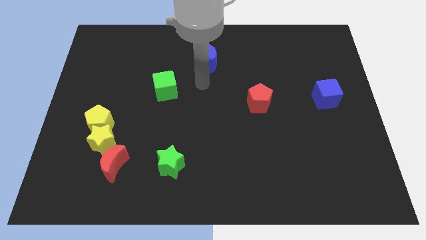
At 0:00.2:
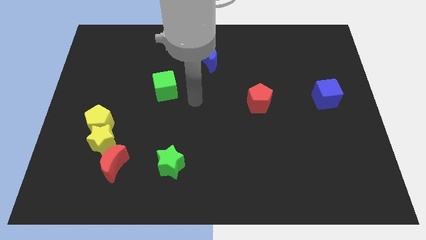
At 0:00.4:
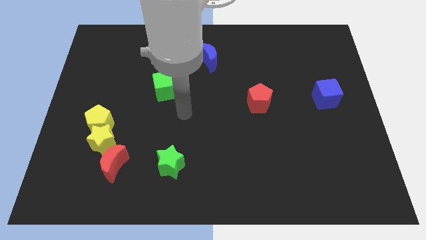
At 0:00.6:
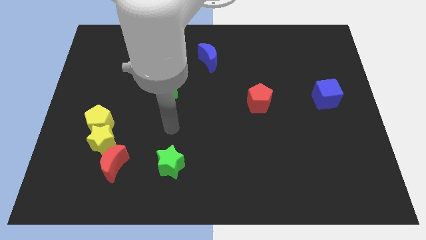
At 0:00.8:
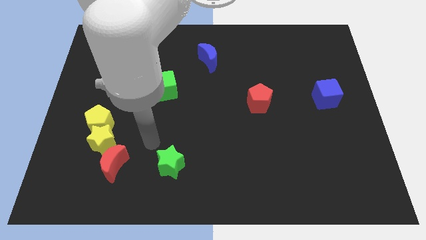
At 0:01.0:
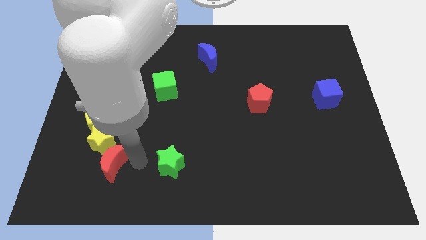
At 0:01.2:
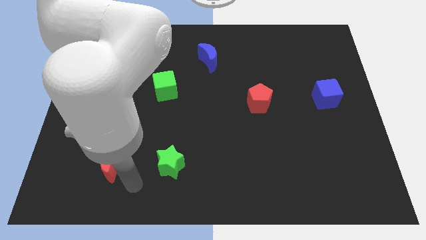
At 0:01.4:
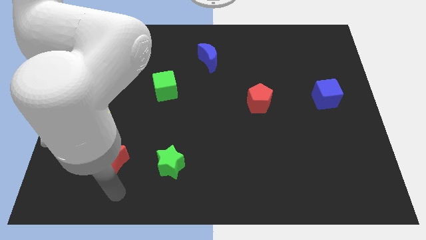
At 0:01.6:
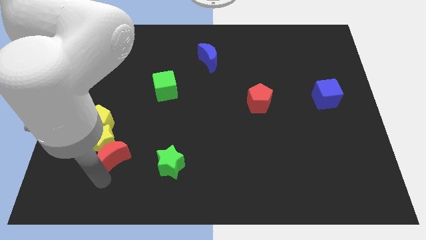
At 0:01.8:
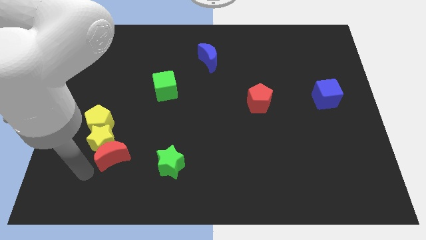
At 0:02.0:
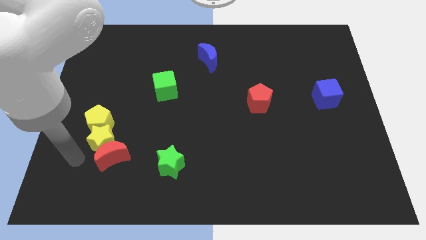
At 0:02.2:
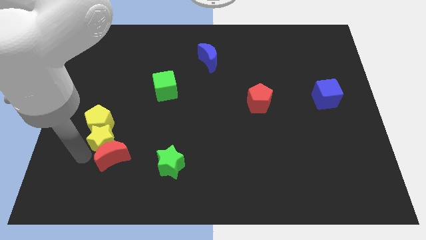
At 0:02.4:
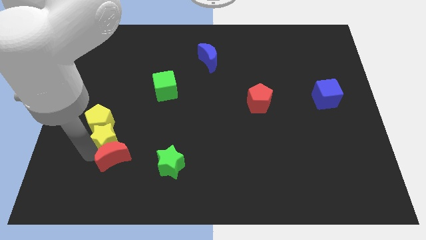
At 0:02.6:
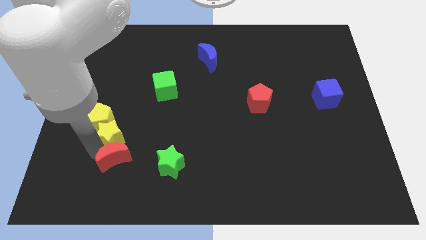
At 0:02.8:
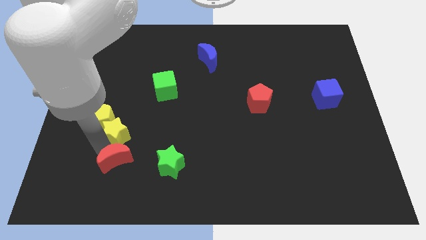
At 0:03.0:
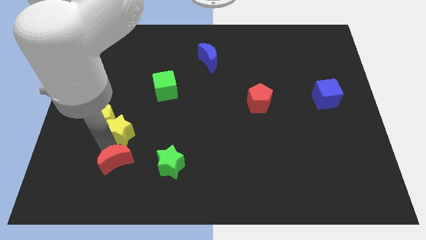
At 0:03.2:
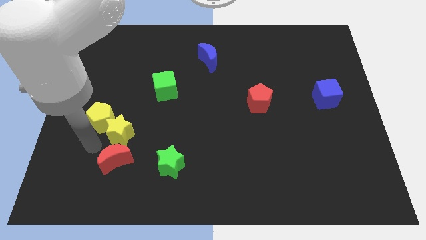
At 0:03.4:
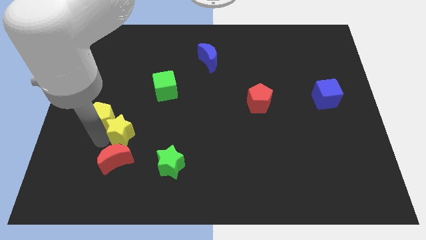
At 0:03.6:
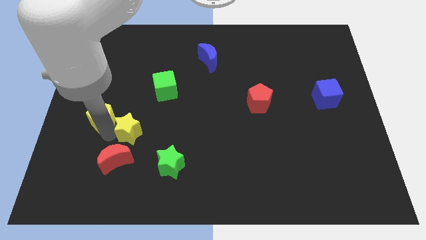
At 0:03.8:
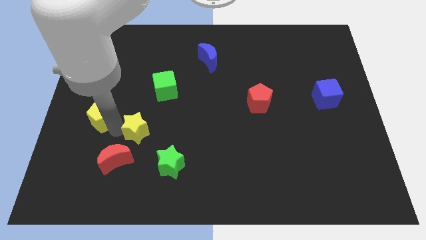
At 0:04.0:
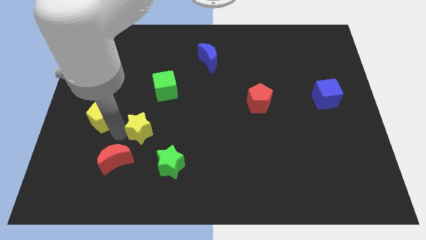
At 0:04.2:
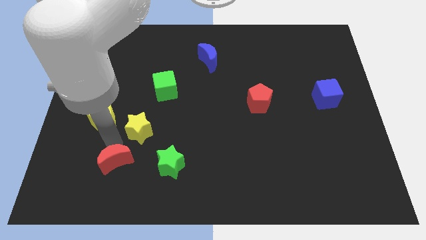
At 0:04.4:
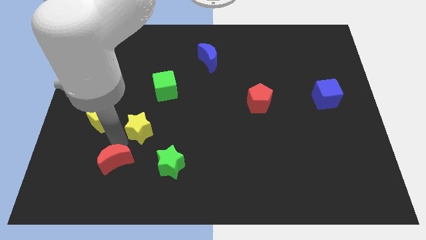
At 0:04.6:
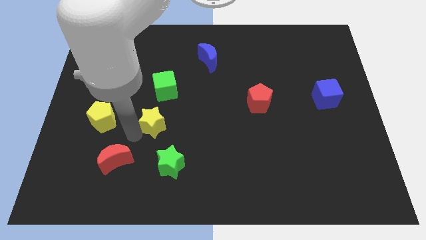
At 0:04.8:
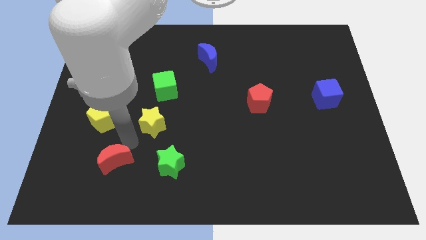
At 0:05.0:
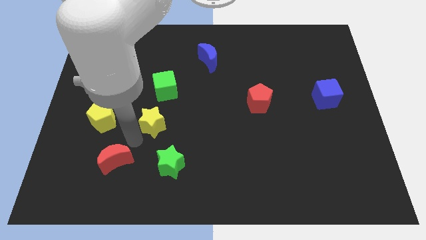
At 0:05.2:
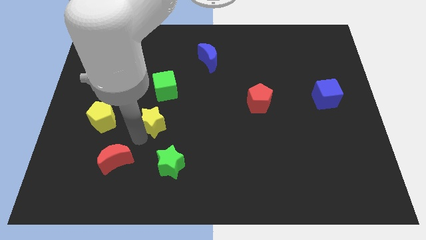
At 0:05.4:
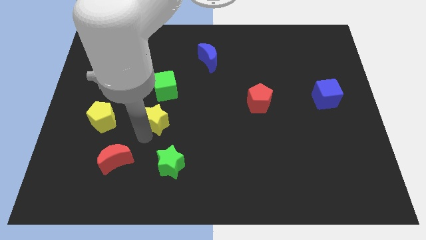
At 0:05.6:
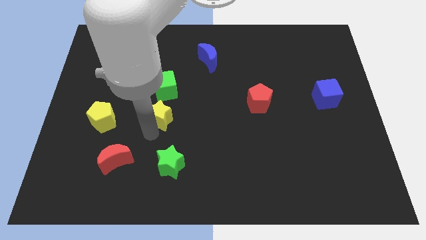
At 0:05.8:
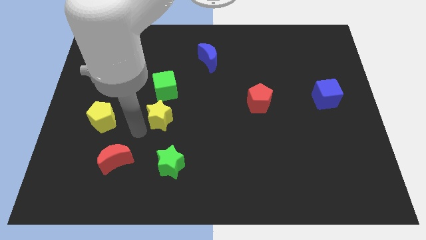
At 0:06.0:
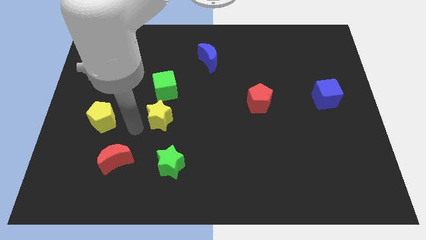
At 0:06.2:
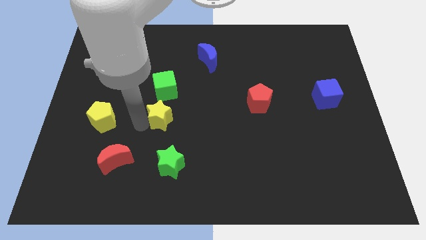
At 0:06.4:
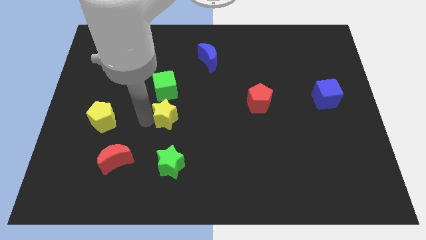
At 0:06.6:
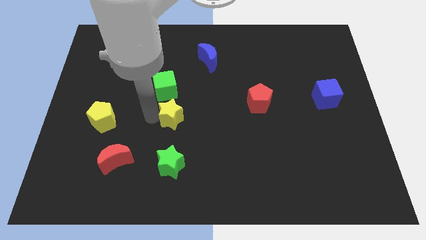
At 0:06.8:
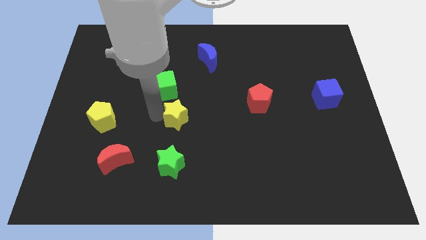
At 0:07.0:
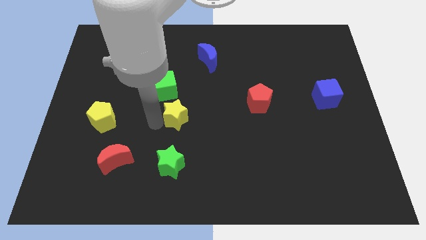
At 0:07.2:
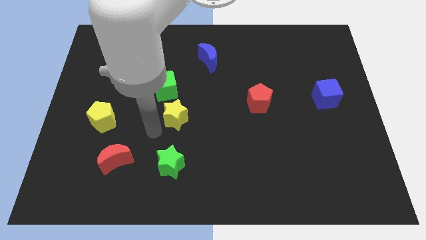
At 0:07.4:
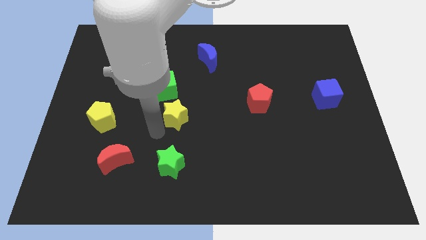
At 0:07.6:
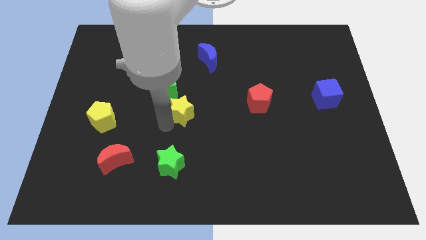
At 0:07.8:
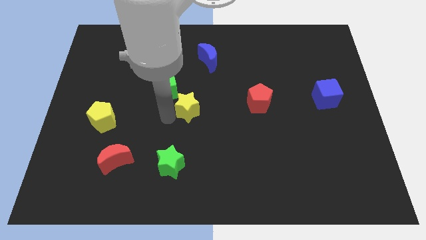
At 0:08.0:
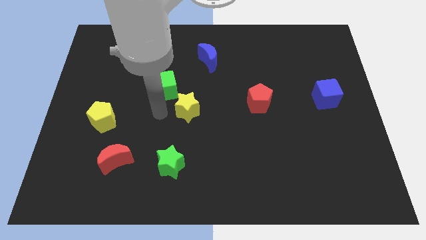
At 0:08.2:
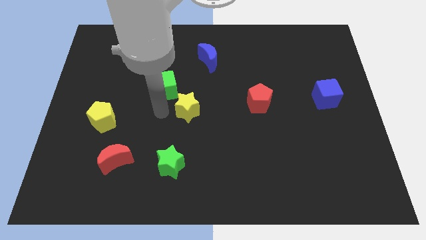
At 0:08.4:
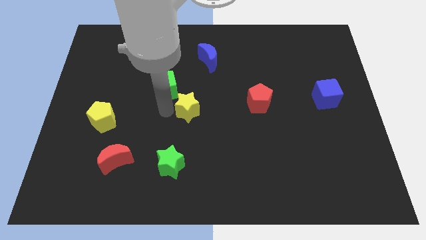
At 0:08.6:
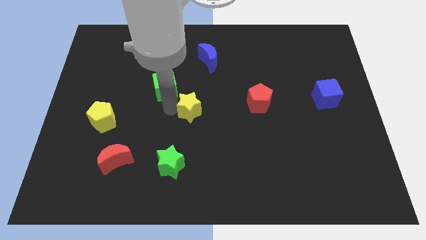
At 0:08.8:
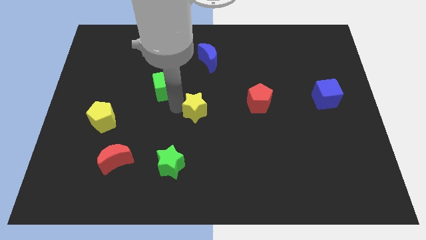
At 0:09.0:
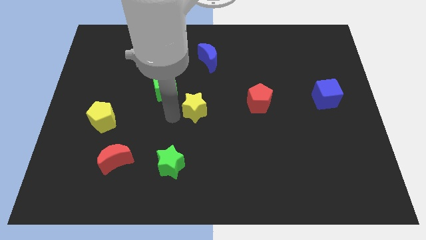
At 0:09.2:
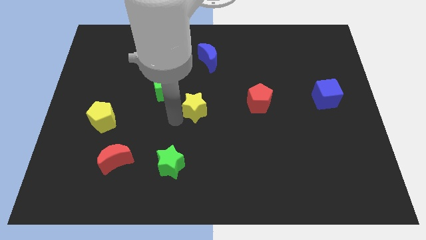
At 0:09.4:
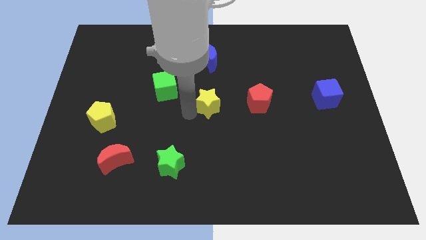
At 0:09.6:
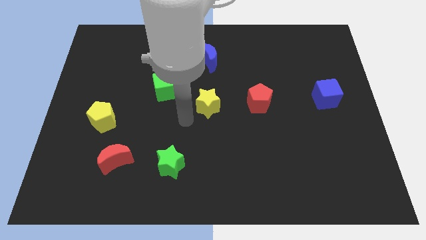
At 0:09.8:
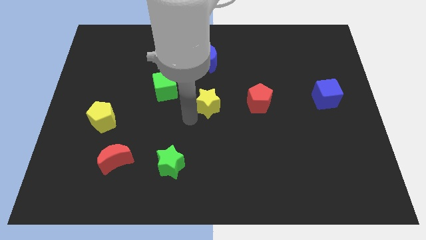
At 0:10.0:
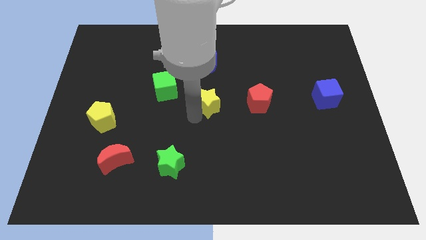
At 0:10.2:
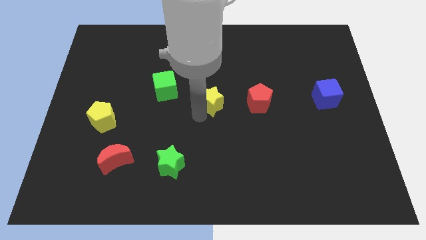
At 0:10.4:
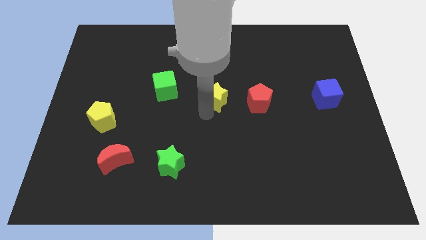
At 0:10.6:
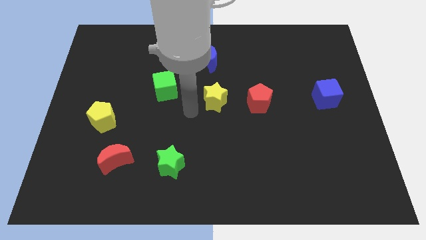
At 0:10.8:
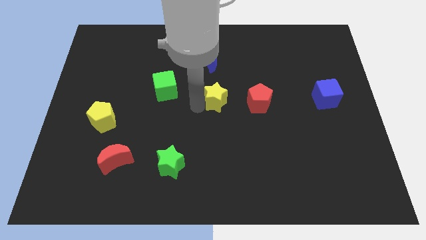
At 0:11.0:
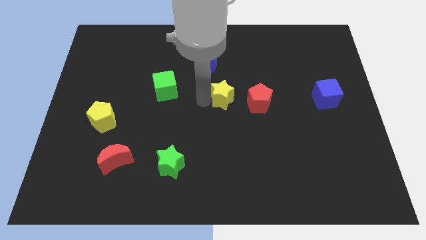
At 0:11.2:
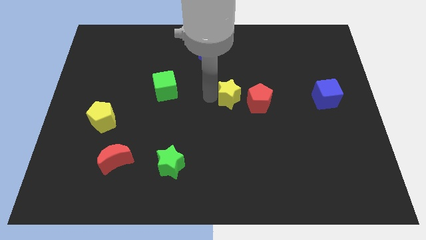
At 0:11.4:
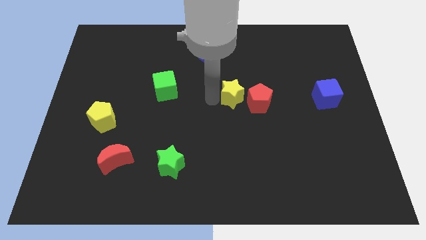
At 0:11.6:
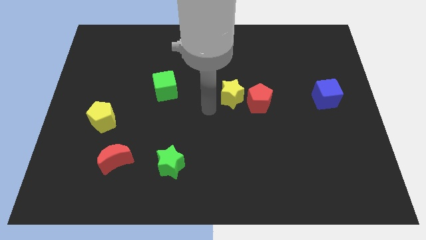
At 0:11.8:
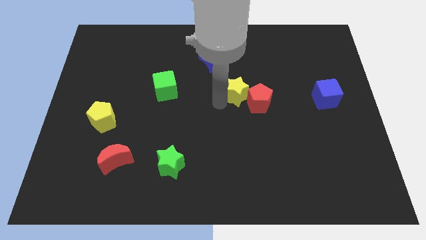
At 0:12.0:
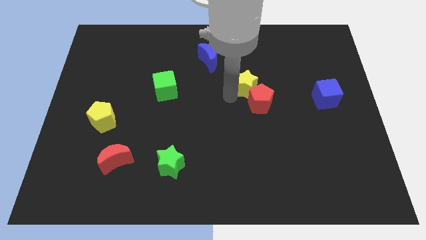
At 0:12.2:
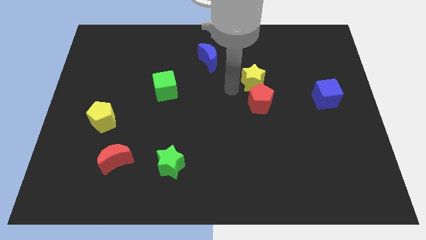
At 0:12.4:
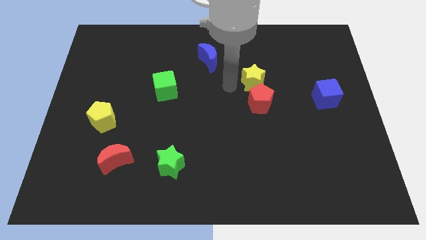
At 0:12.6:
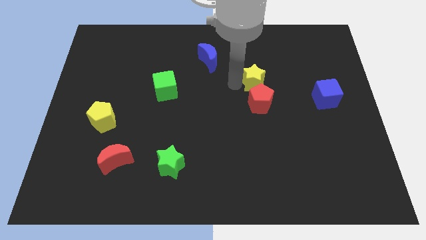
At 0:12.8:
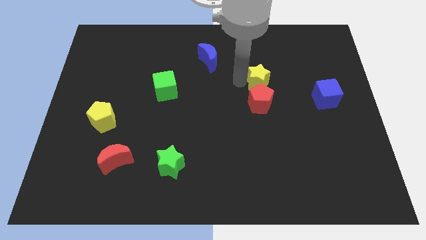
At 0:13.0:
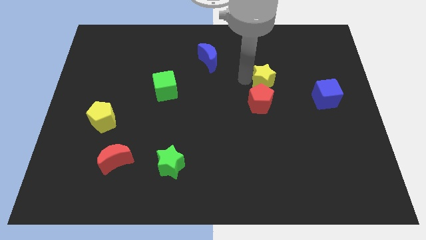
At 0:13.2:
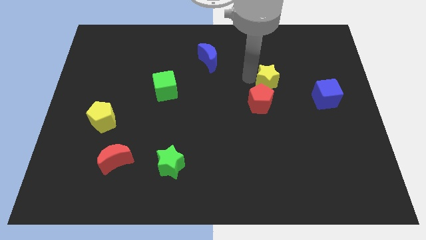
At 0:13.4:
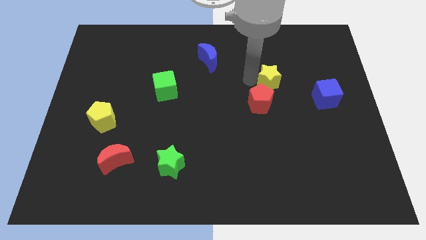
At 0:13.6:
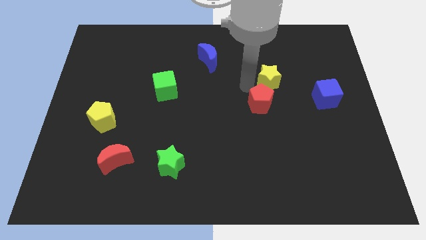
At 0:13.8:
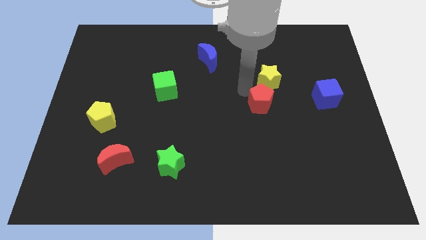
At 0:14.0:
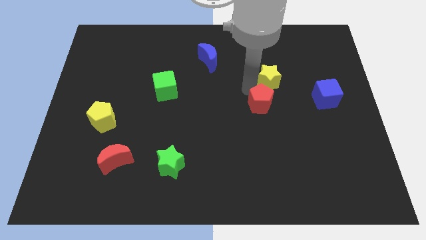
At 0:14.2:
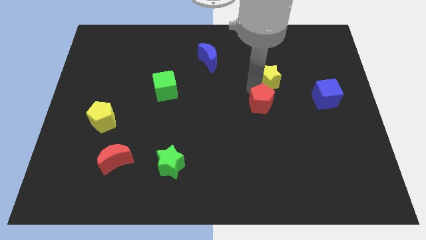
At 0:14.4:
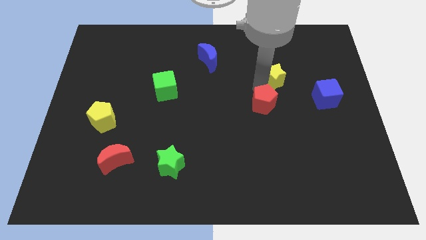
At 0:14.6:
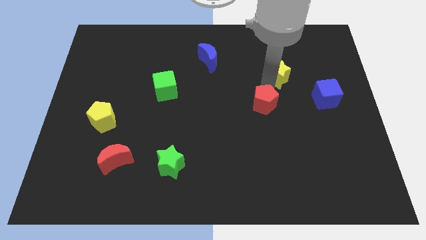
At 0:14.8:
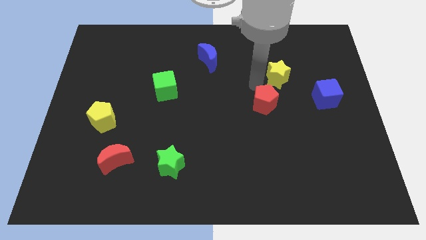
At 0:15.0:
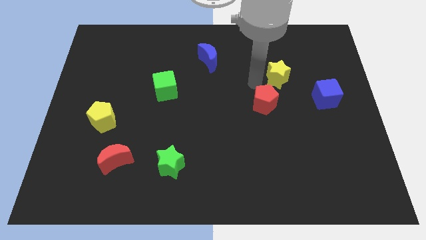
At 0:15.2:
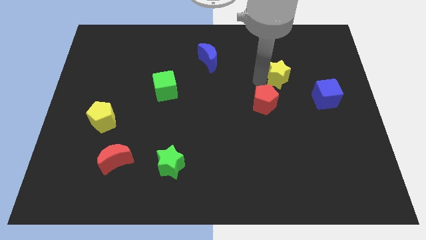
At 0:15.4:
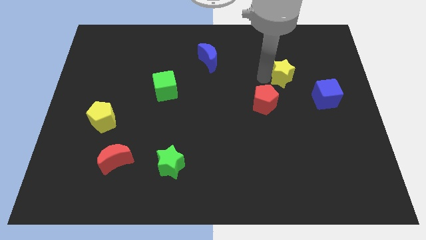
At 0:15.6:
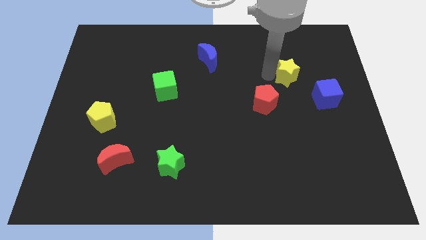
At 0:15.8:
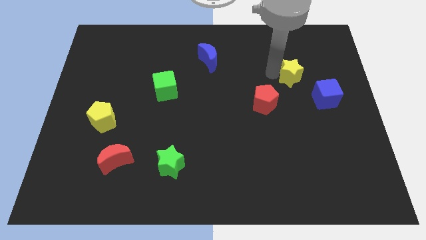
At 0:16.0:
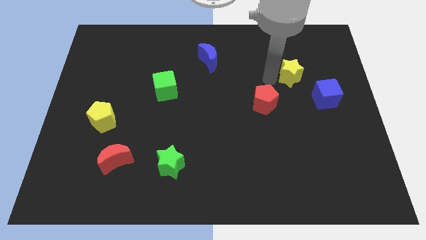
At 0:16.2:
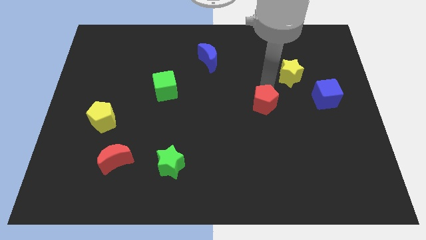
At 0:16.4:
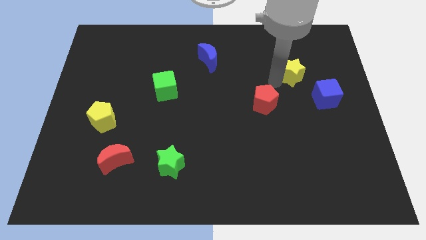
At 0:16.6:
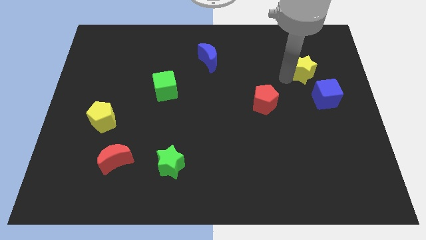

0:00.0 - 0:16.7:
move the yellow star to the top side of the blue cube
